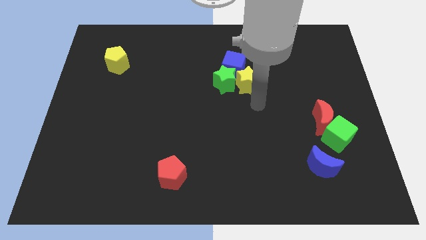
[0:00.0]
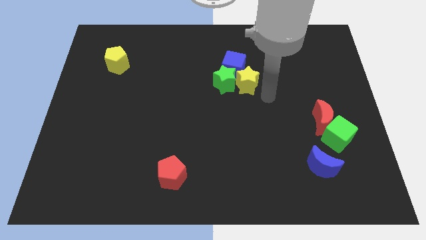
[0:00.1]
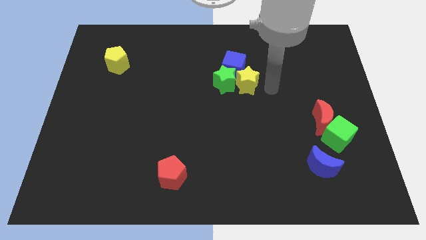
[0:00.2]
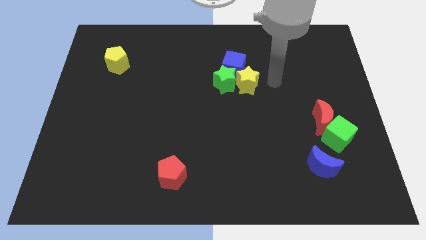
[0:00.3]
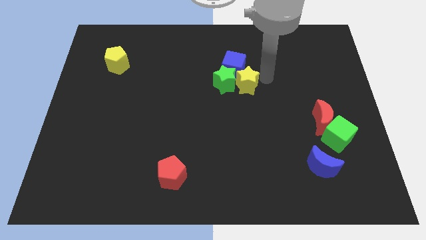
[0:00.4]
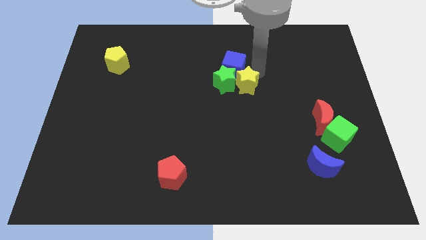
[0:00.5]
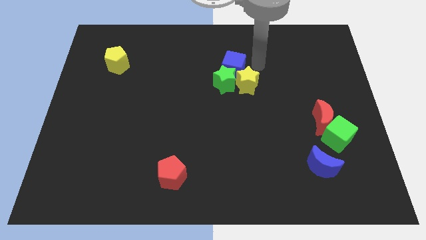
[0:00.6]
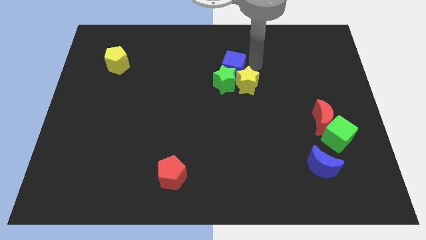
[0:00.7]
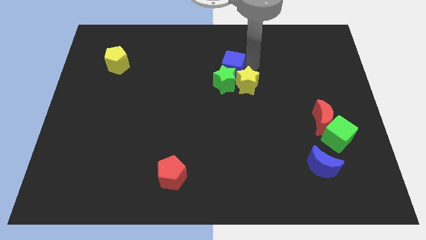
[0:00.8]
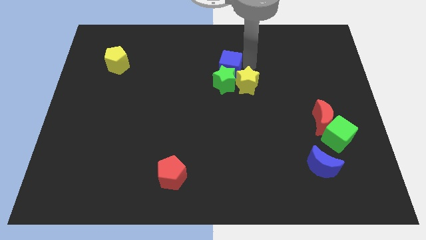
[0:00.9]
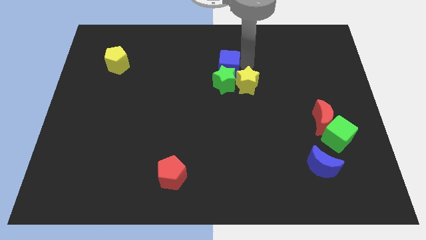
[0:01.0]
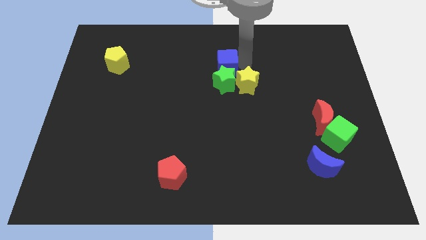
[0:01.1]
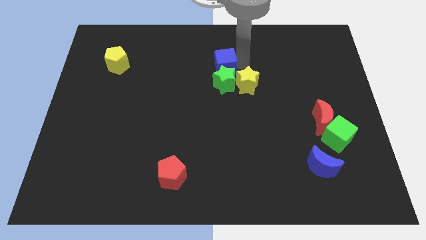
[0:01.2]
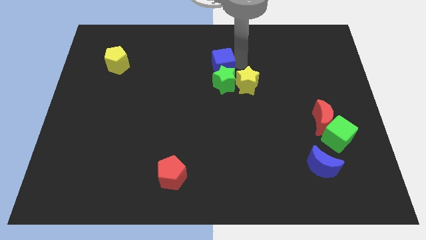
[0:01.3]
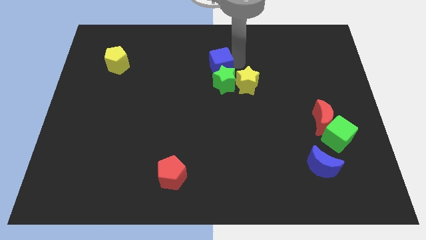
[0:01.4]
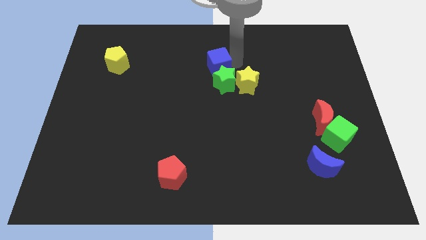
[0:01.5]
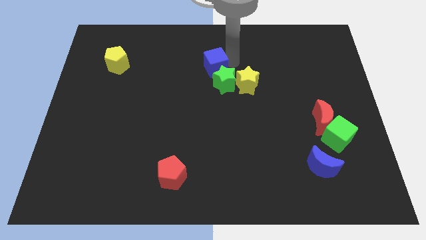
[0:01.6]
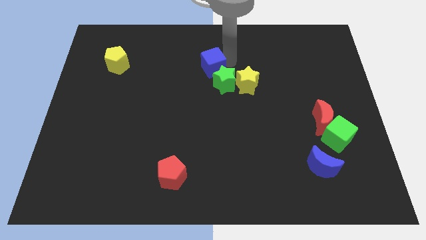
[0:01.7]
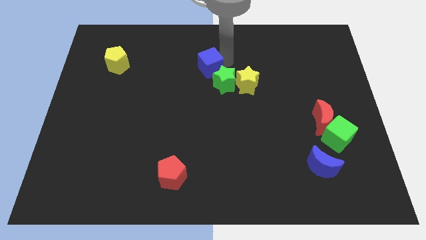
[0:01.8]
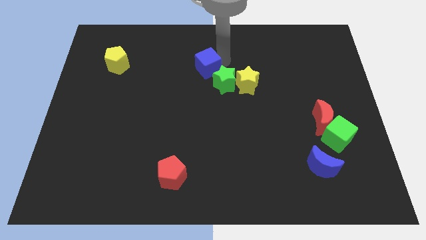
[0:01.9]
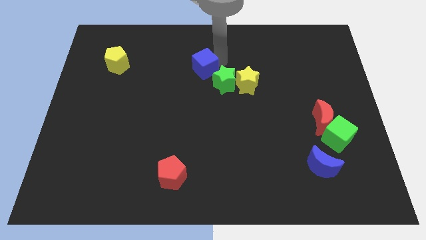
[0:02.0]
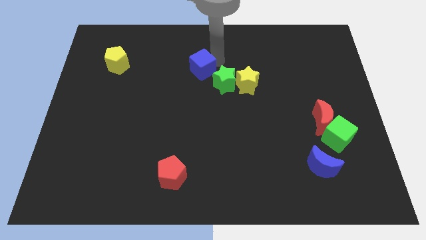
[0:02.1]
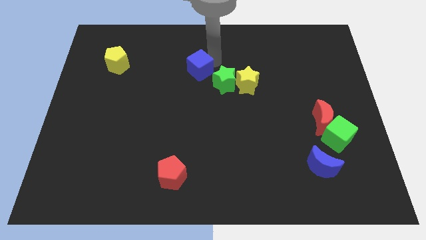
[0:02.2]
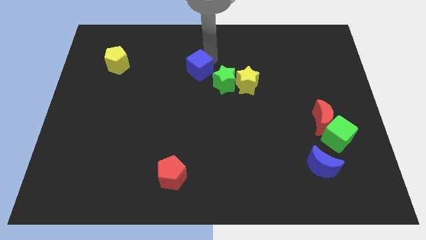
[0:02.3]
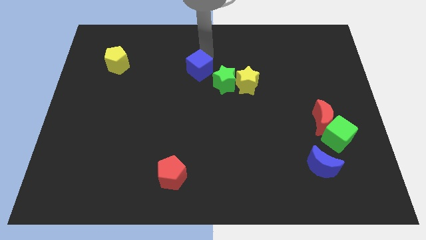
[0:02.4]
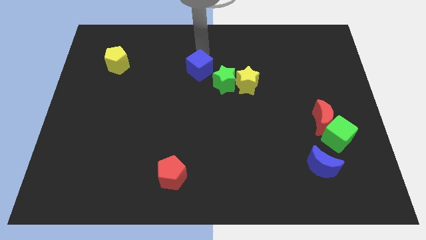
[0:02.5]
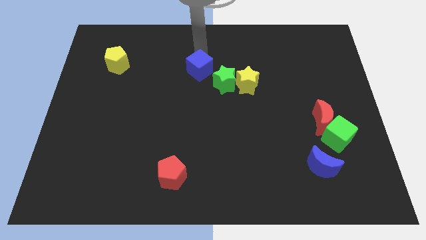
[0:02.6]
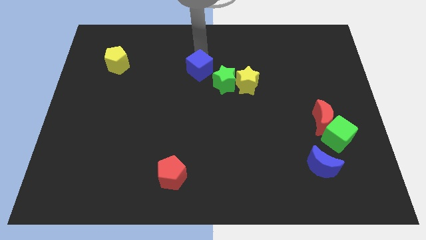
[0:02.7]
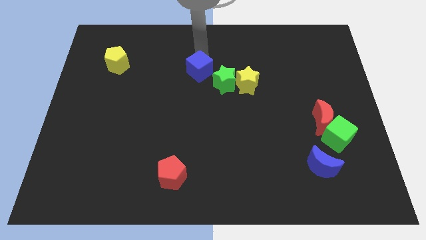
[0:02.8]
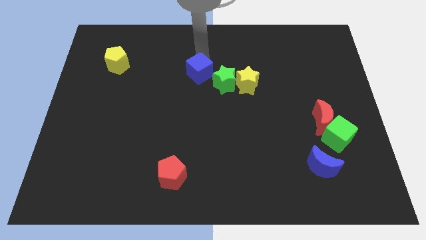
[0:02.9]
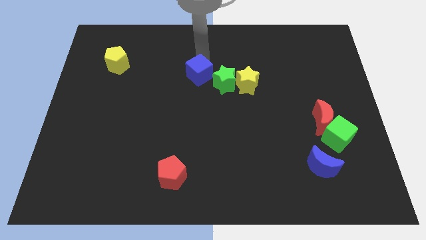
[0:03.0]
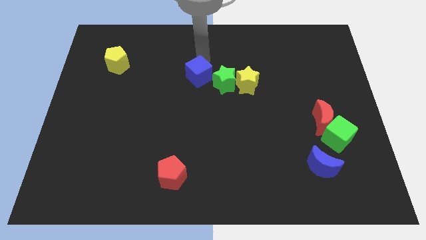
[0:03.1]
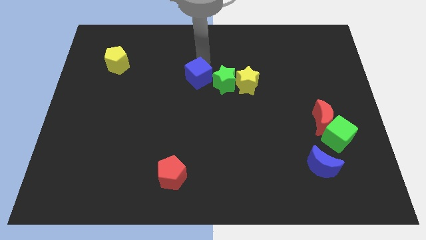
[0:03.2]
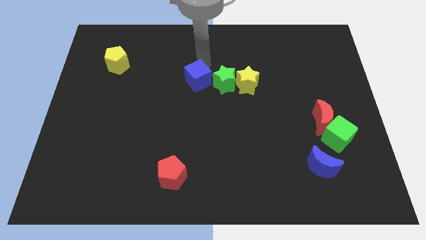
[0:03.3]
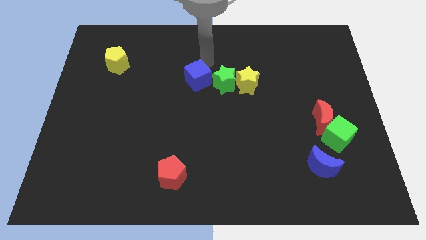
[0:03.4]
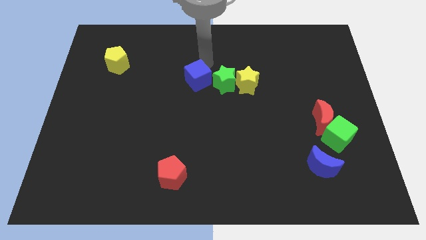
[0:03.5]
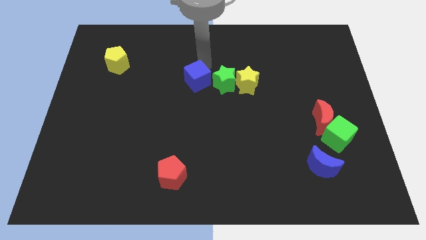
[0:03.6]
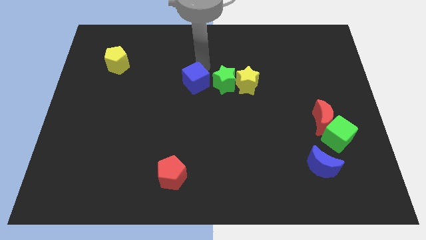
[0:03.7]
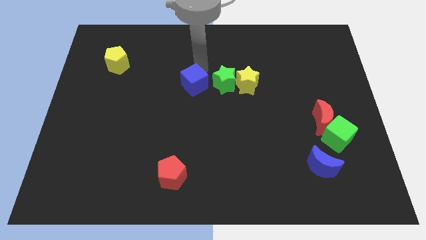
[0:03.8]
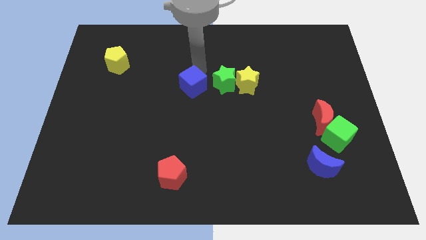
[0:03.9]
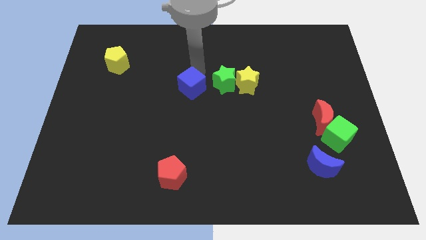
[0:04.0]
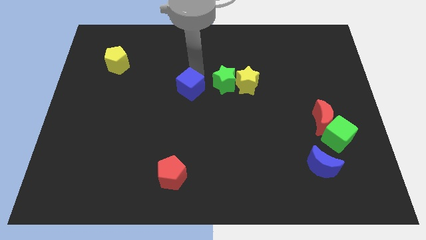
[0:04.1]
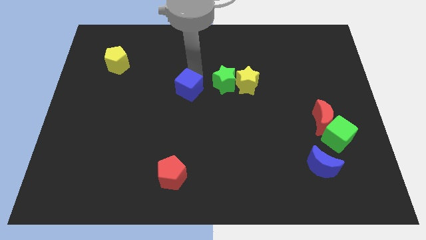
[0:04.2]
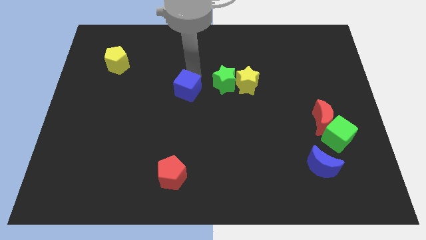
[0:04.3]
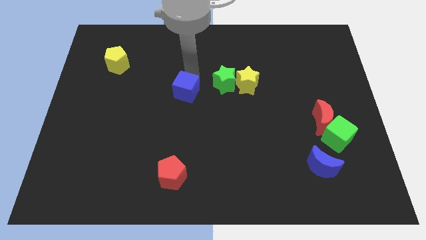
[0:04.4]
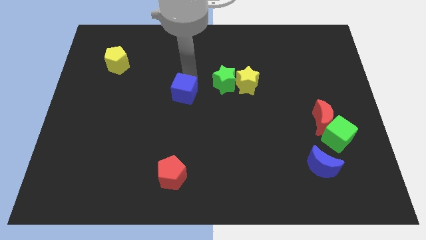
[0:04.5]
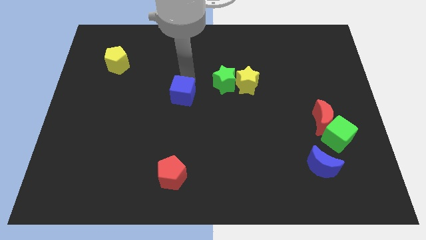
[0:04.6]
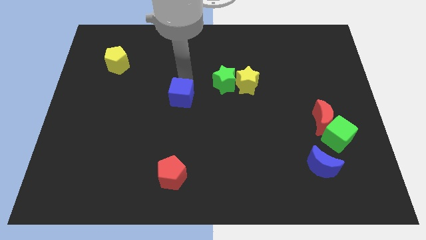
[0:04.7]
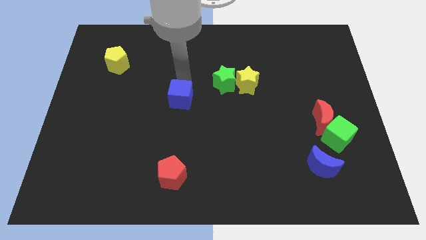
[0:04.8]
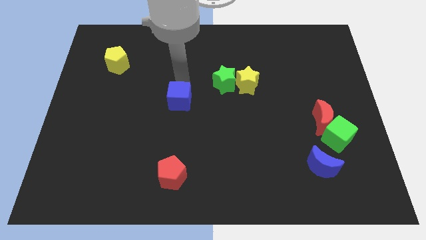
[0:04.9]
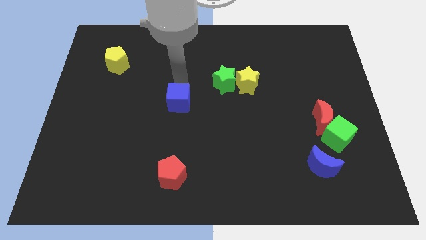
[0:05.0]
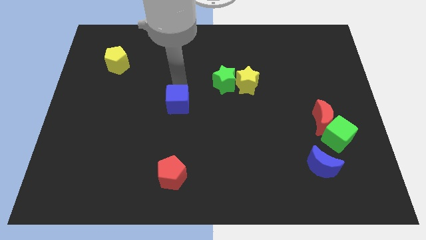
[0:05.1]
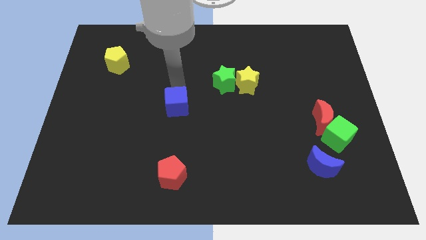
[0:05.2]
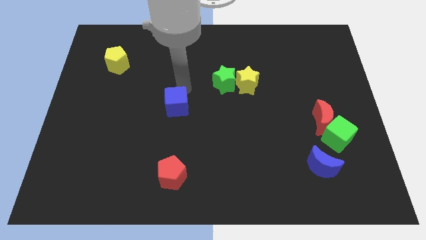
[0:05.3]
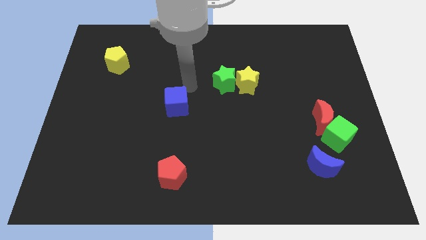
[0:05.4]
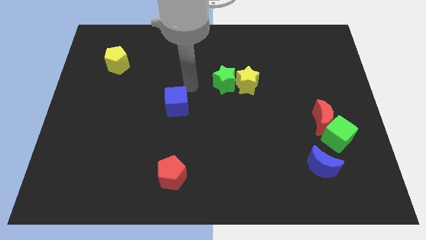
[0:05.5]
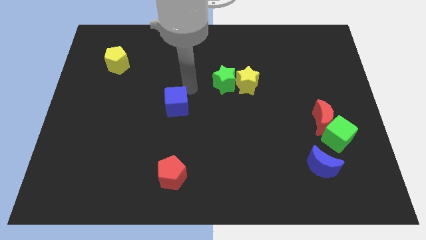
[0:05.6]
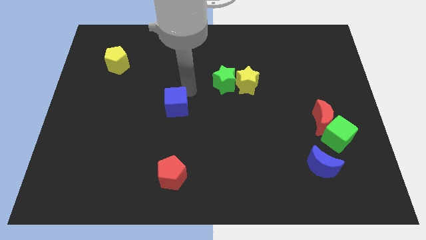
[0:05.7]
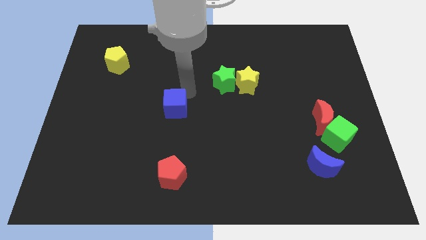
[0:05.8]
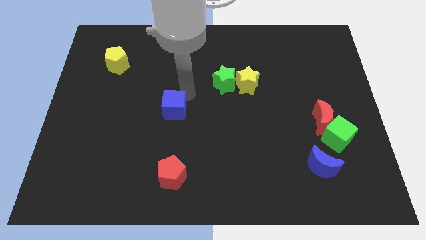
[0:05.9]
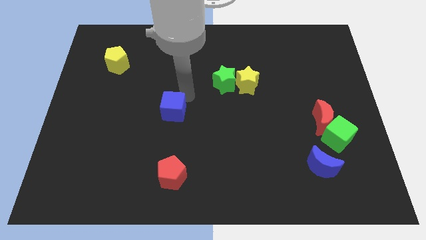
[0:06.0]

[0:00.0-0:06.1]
push the blue cube down and then to the left

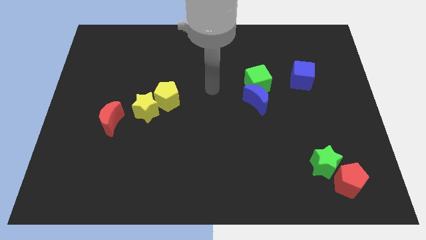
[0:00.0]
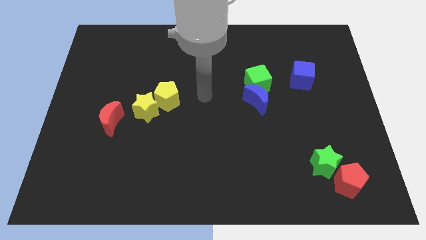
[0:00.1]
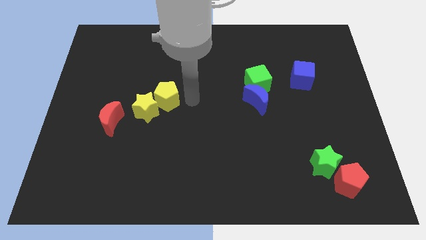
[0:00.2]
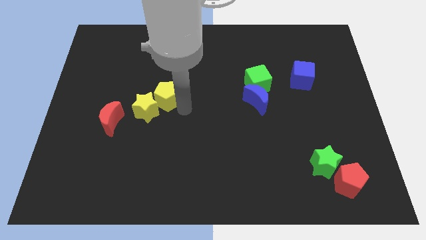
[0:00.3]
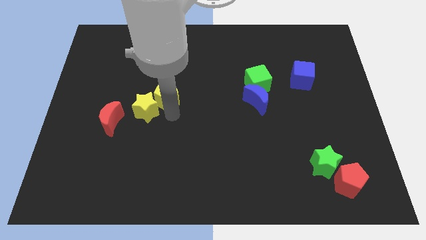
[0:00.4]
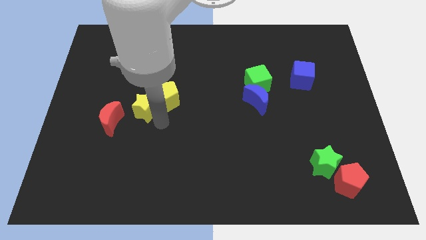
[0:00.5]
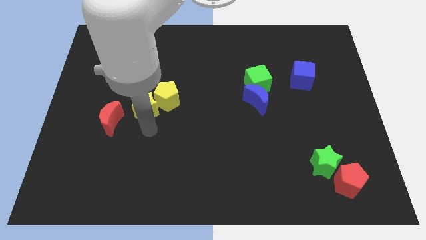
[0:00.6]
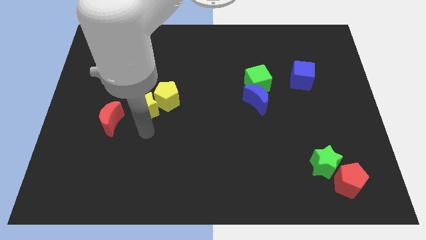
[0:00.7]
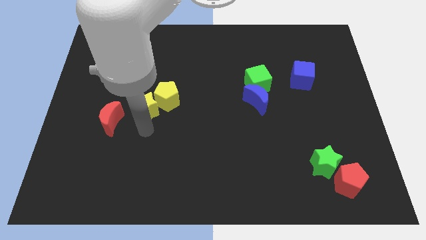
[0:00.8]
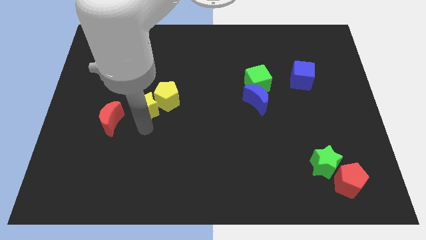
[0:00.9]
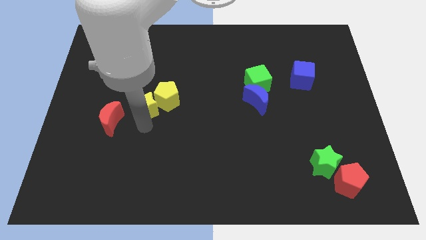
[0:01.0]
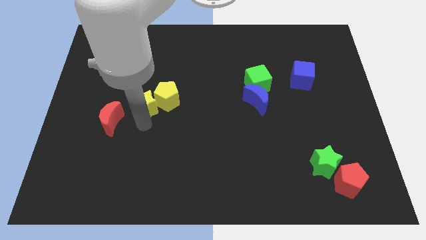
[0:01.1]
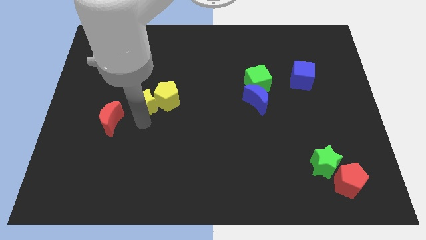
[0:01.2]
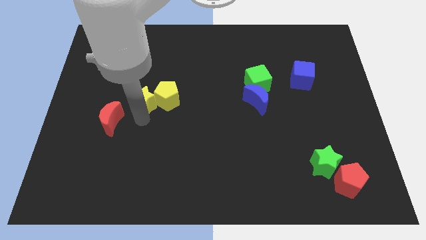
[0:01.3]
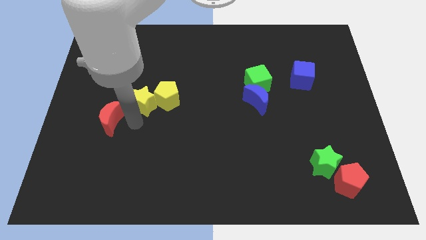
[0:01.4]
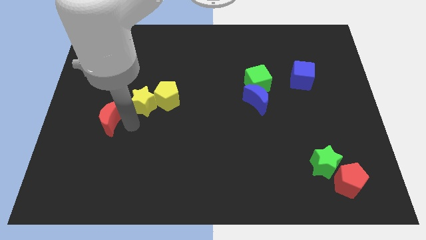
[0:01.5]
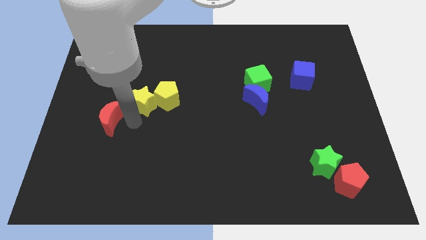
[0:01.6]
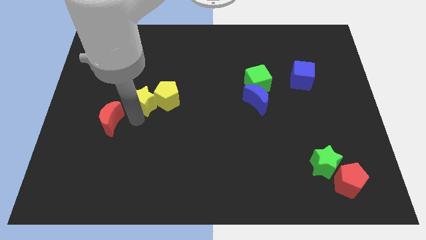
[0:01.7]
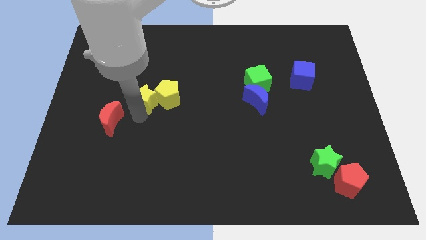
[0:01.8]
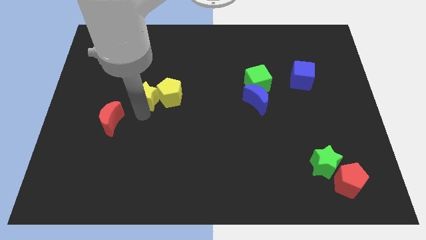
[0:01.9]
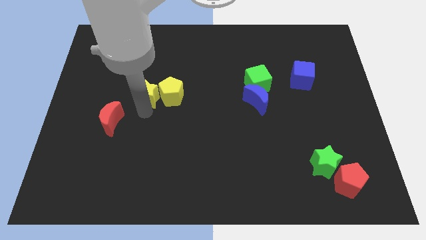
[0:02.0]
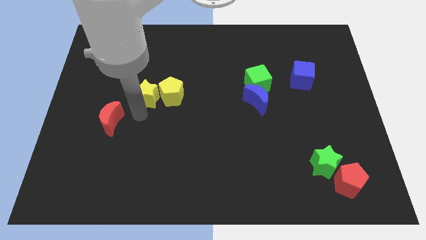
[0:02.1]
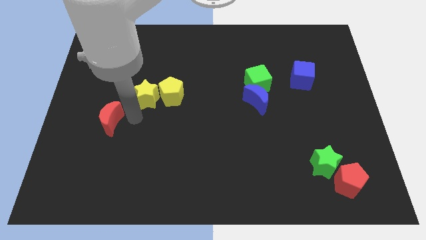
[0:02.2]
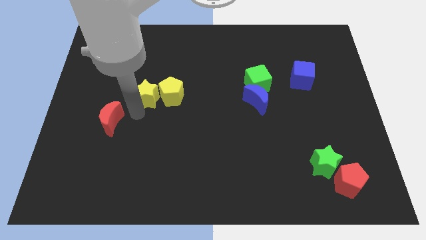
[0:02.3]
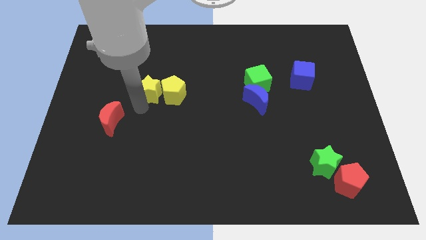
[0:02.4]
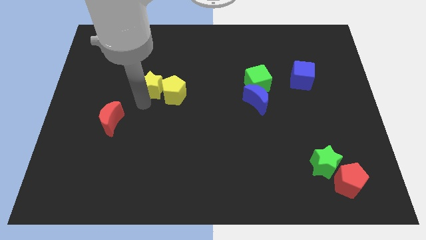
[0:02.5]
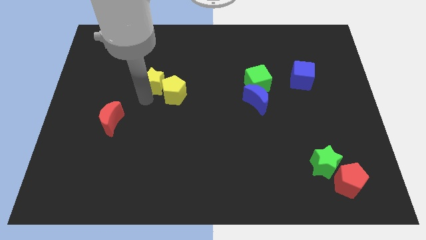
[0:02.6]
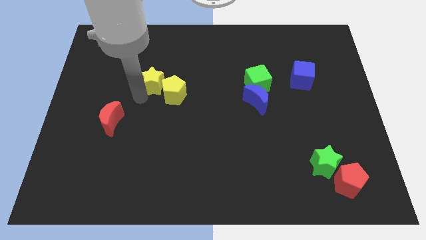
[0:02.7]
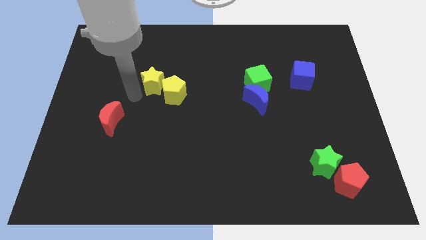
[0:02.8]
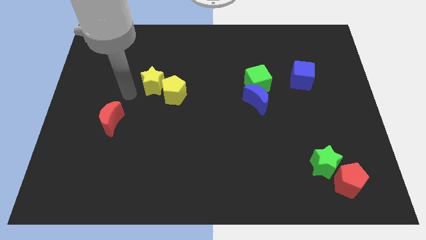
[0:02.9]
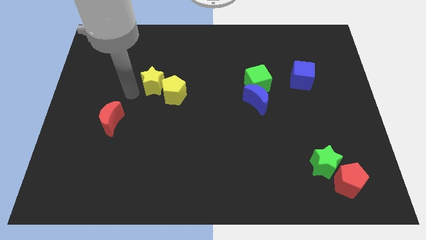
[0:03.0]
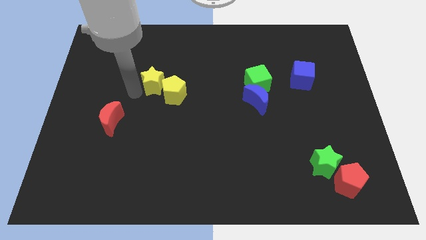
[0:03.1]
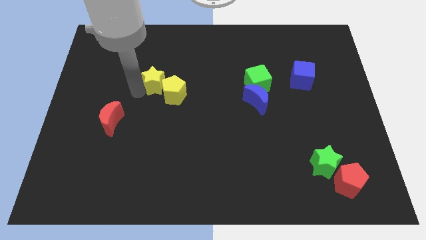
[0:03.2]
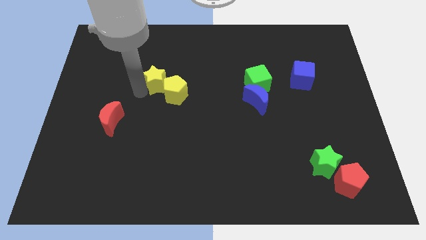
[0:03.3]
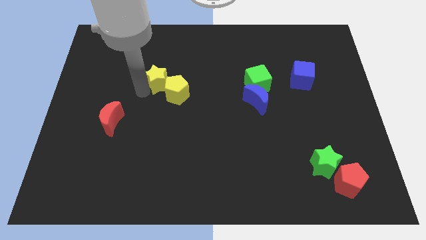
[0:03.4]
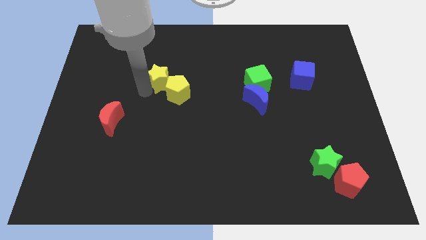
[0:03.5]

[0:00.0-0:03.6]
move the yellow star upwards and right slightly
